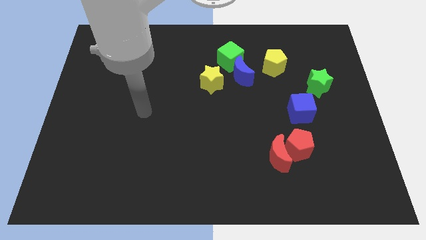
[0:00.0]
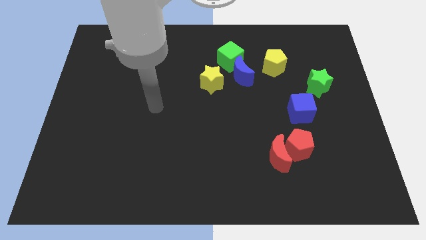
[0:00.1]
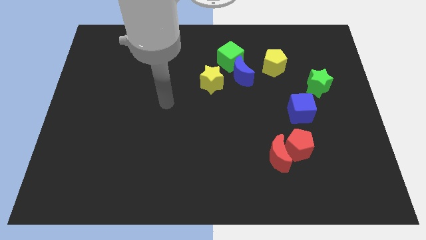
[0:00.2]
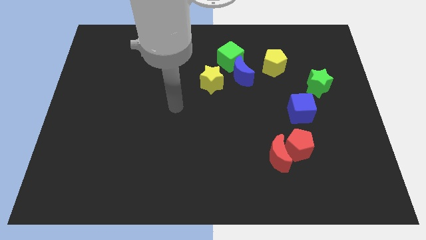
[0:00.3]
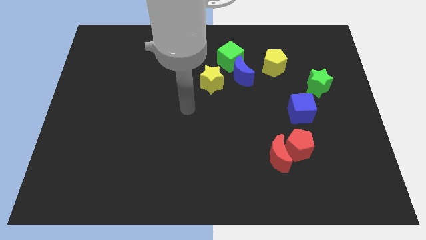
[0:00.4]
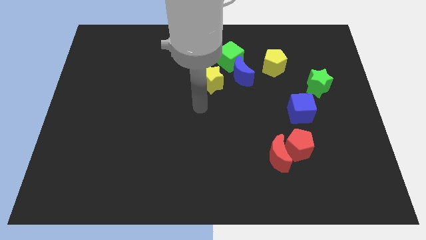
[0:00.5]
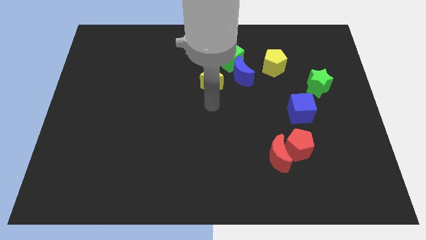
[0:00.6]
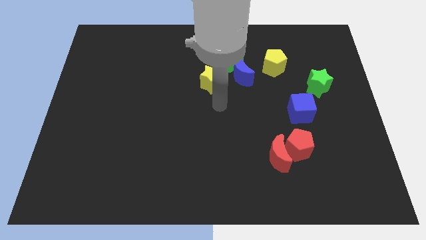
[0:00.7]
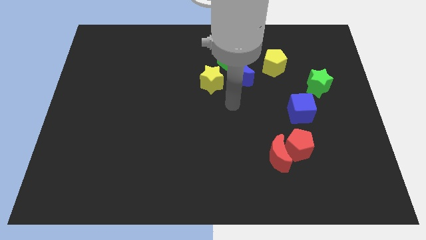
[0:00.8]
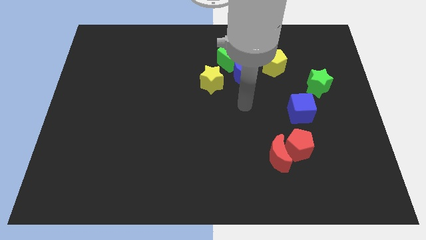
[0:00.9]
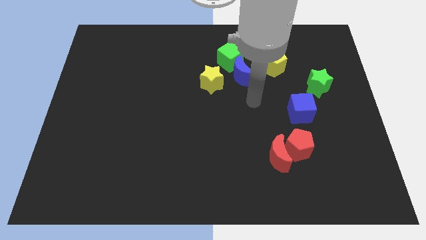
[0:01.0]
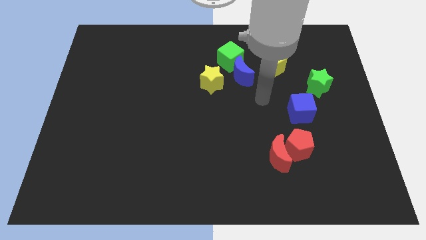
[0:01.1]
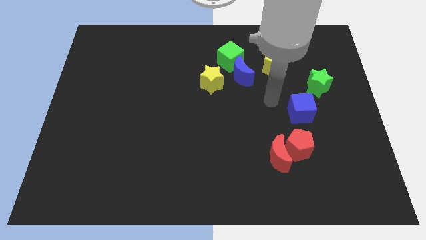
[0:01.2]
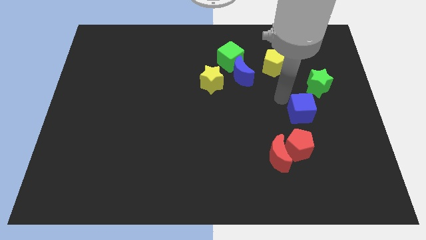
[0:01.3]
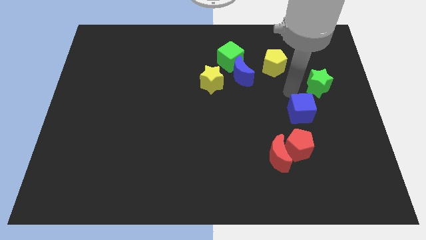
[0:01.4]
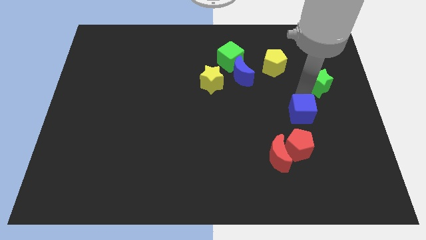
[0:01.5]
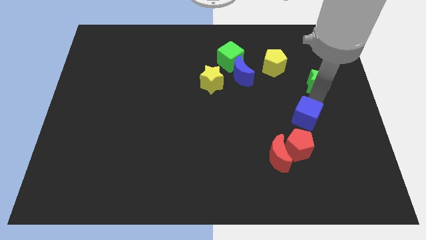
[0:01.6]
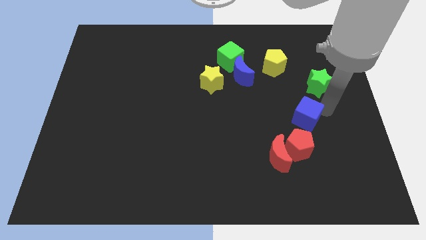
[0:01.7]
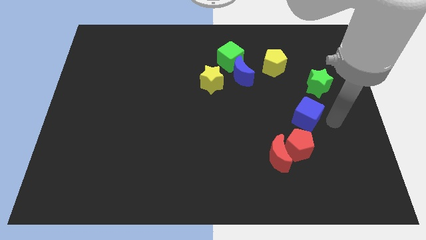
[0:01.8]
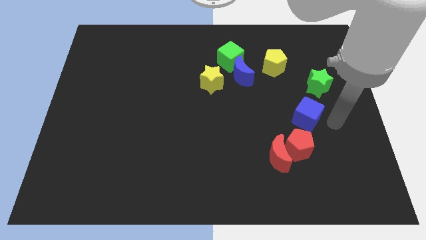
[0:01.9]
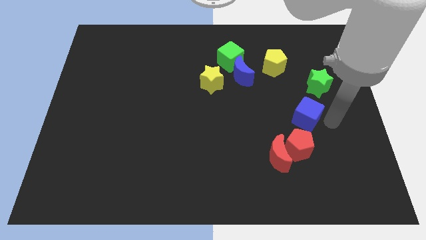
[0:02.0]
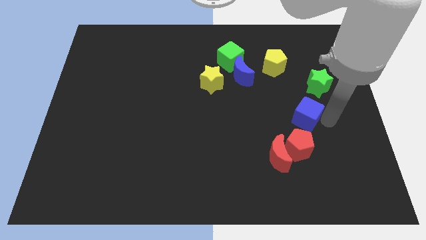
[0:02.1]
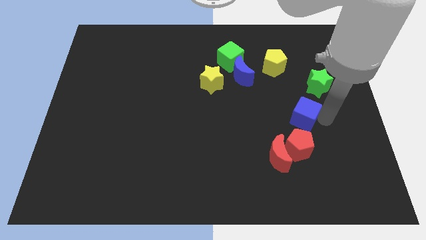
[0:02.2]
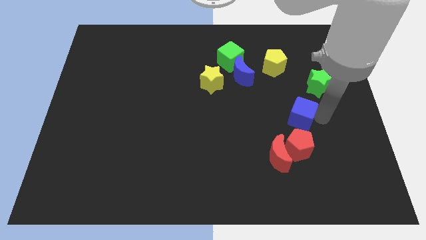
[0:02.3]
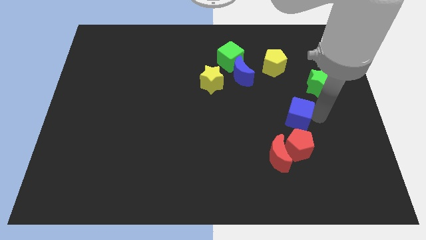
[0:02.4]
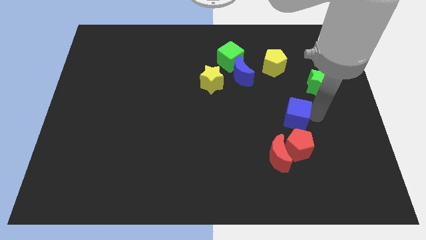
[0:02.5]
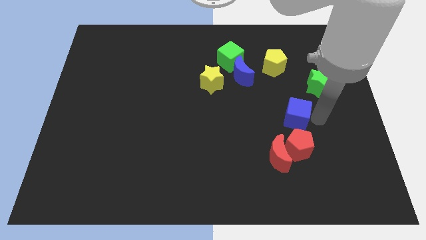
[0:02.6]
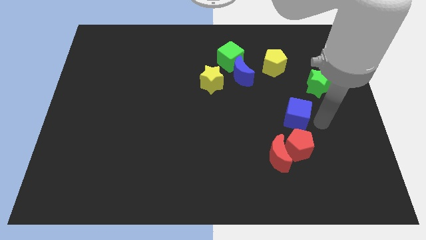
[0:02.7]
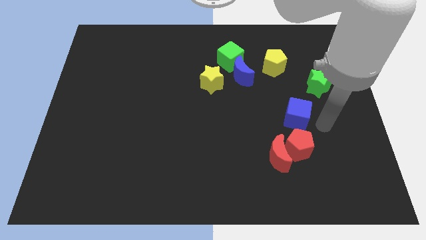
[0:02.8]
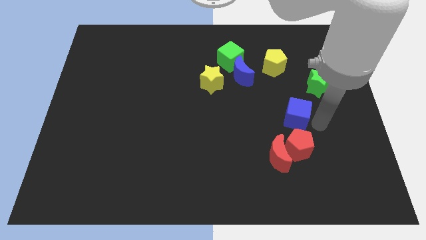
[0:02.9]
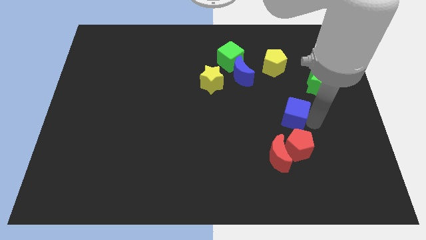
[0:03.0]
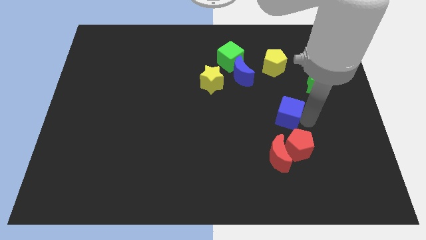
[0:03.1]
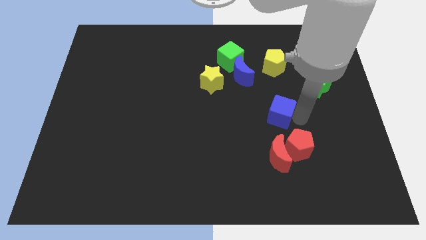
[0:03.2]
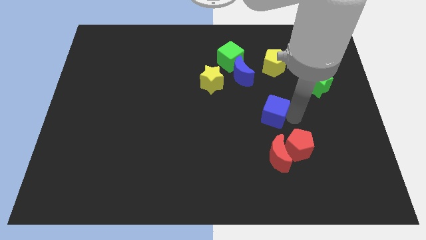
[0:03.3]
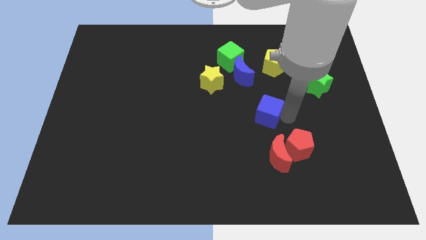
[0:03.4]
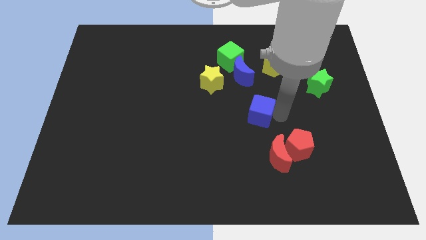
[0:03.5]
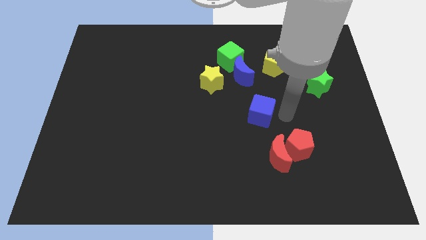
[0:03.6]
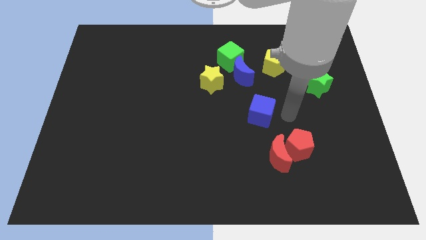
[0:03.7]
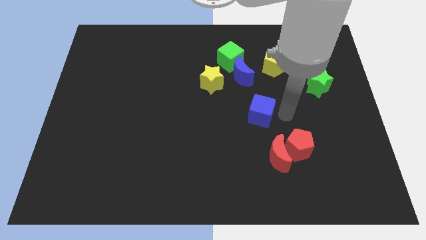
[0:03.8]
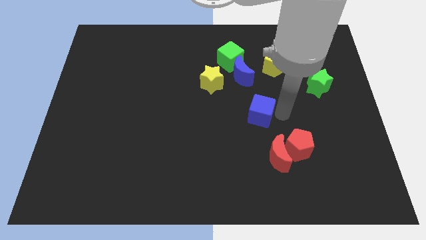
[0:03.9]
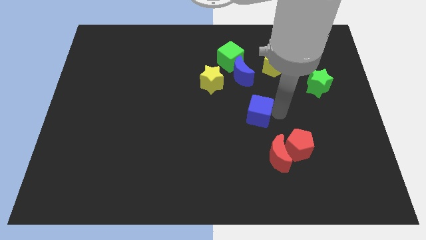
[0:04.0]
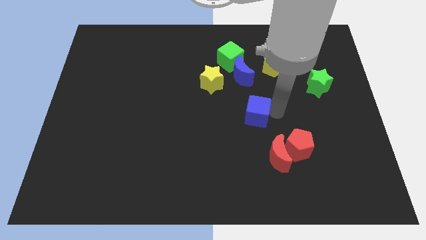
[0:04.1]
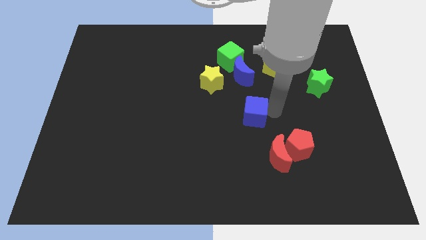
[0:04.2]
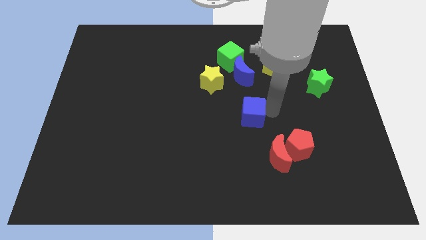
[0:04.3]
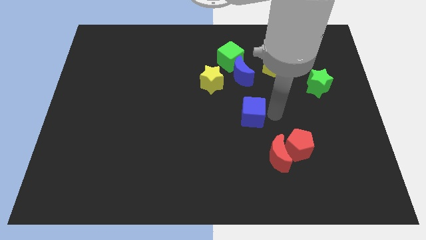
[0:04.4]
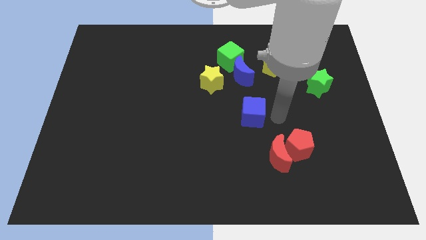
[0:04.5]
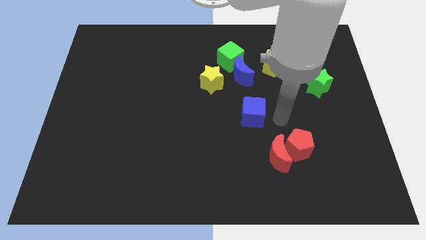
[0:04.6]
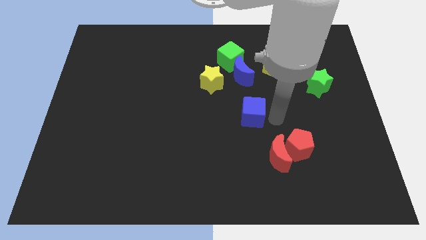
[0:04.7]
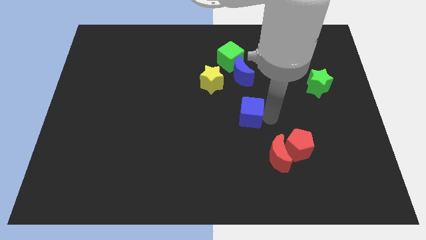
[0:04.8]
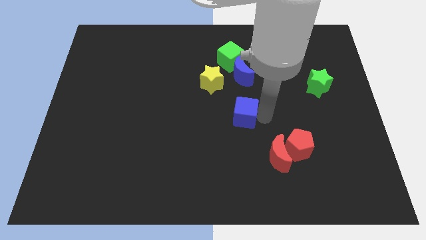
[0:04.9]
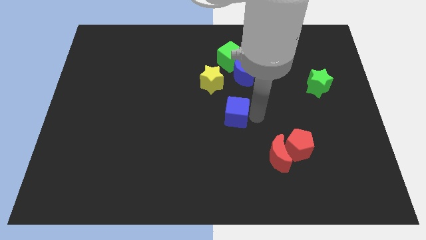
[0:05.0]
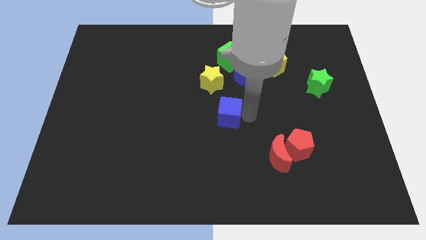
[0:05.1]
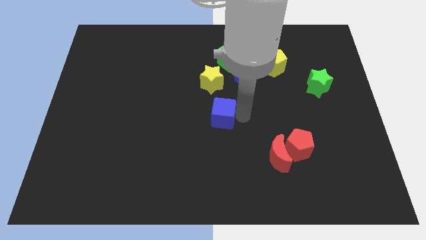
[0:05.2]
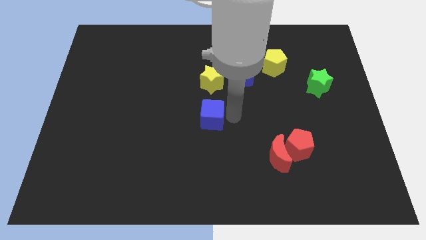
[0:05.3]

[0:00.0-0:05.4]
slide the blue cube left

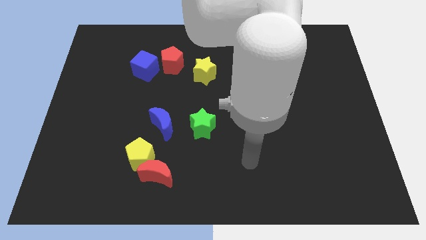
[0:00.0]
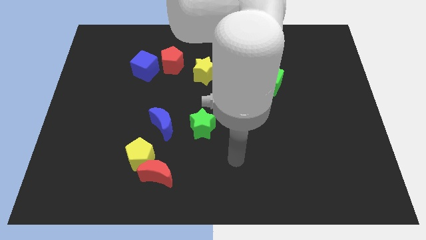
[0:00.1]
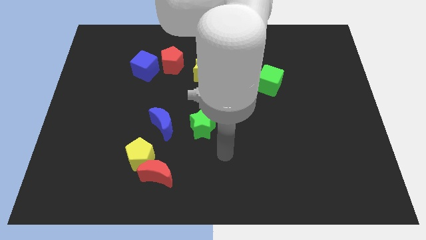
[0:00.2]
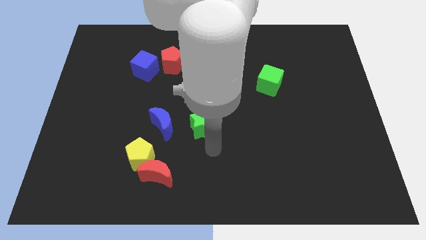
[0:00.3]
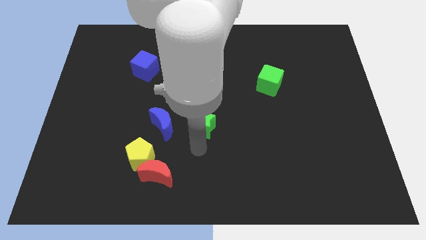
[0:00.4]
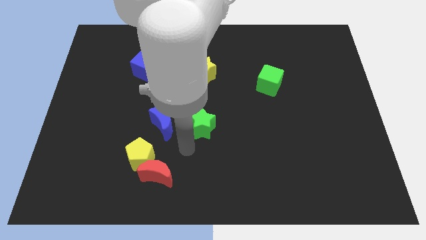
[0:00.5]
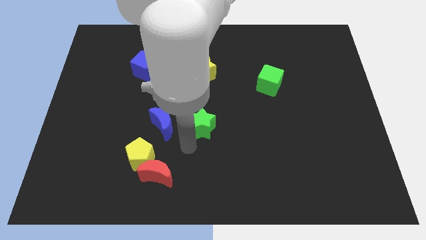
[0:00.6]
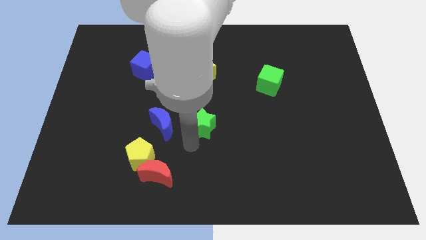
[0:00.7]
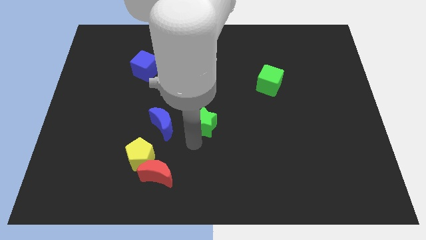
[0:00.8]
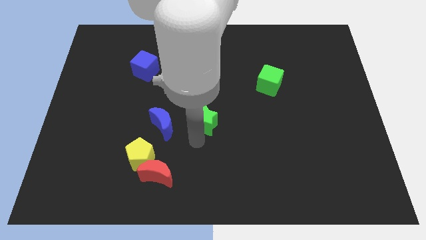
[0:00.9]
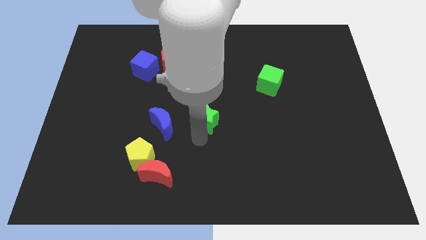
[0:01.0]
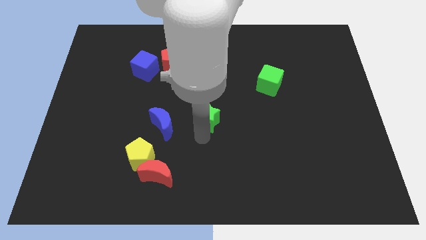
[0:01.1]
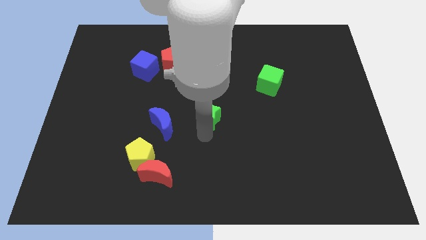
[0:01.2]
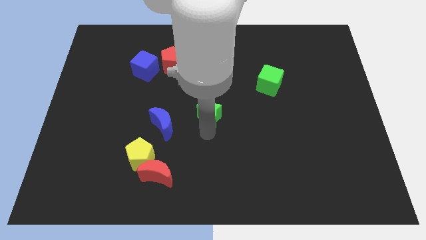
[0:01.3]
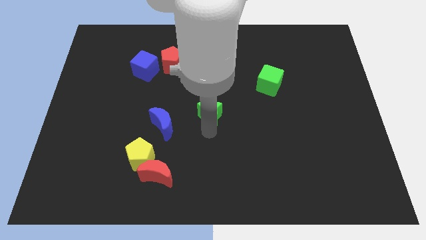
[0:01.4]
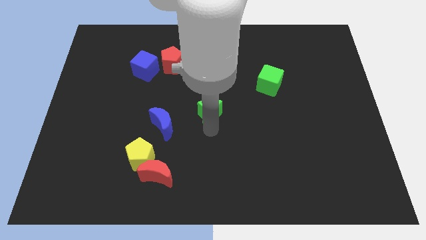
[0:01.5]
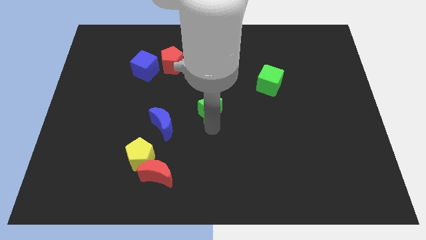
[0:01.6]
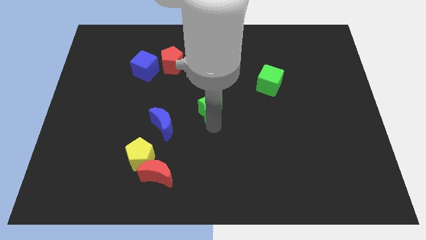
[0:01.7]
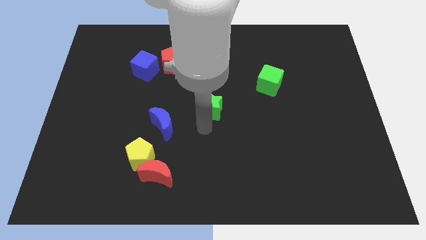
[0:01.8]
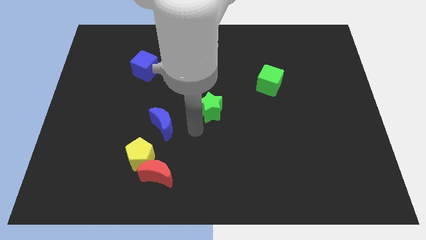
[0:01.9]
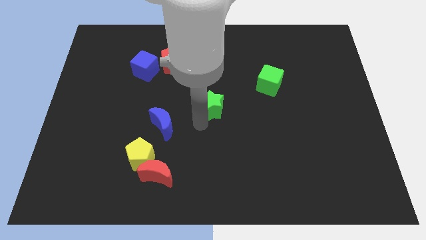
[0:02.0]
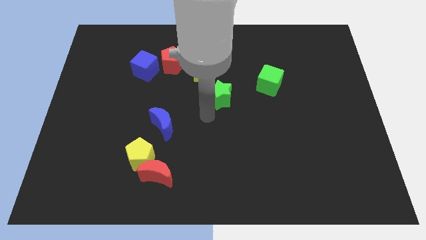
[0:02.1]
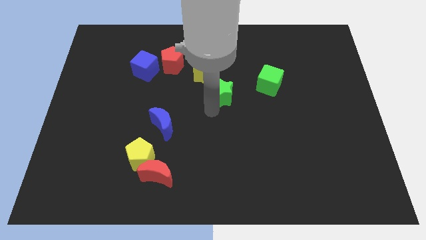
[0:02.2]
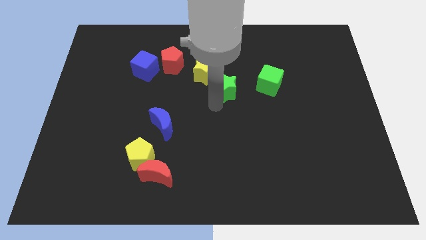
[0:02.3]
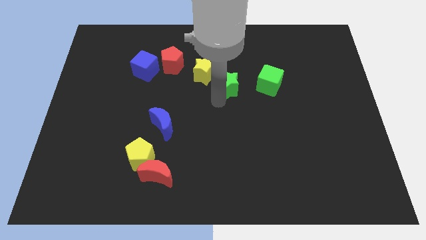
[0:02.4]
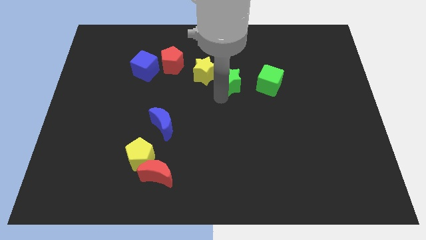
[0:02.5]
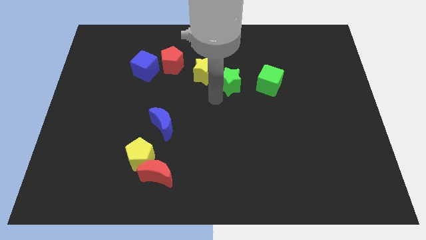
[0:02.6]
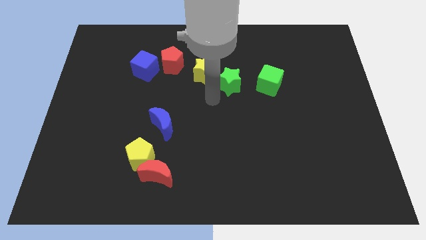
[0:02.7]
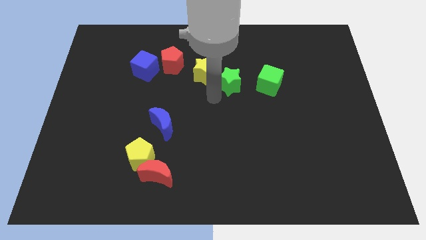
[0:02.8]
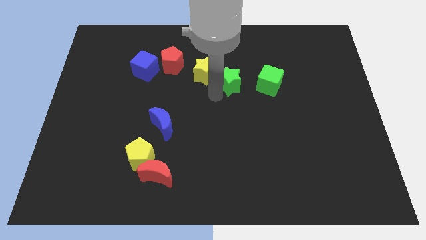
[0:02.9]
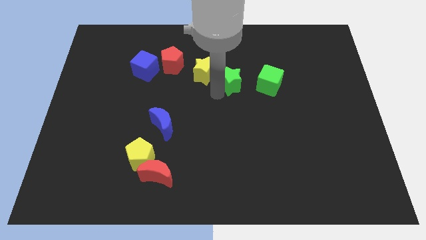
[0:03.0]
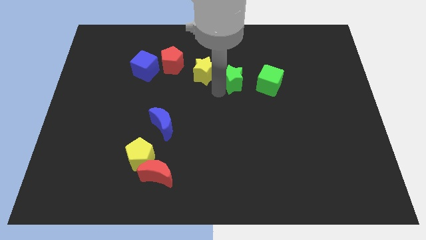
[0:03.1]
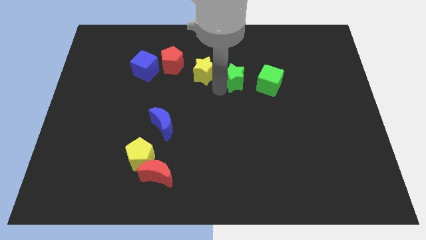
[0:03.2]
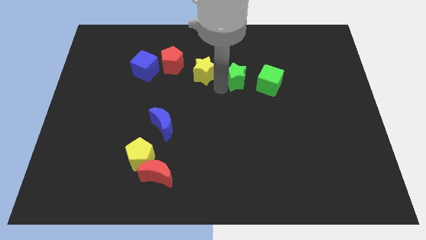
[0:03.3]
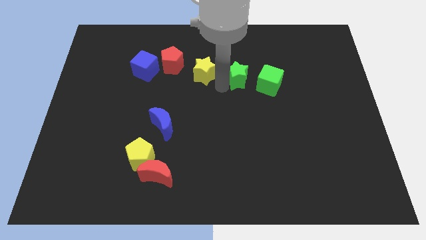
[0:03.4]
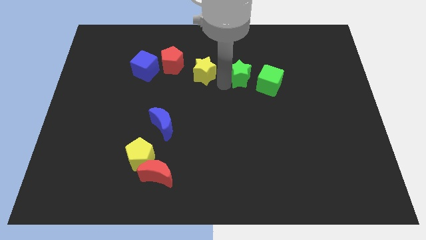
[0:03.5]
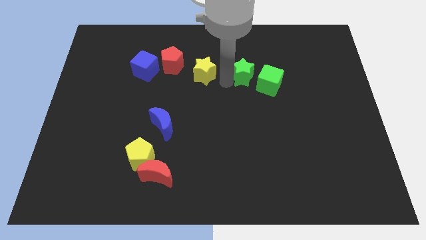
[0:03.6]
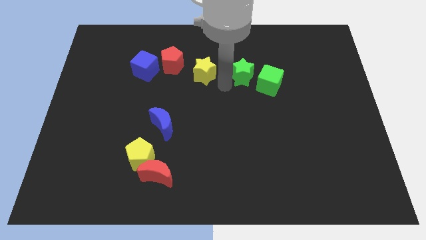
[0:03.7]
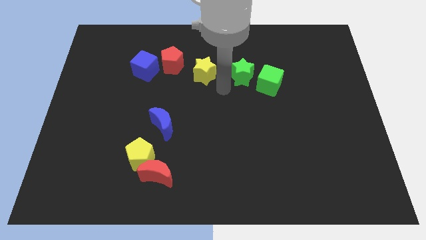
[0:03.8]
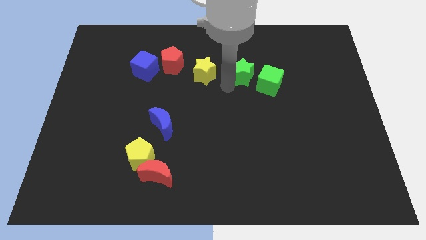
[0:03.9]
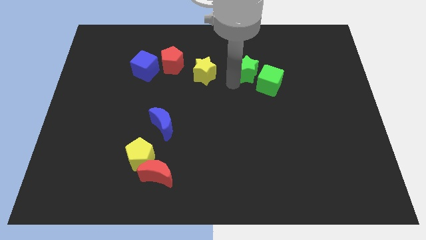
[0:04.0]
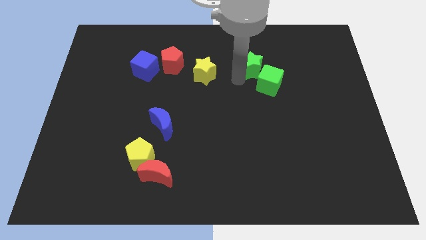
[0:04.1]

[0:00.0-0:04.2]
push the green star diagonally up and to the right
